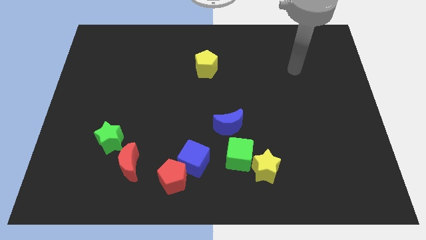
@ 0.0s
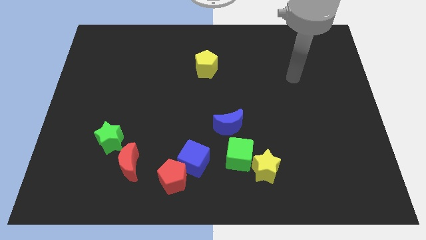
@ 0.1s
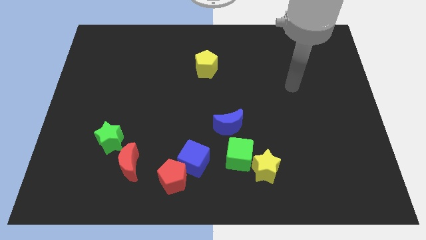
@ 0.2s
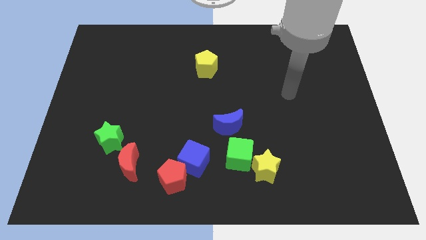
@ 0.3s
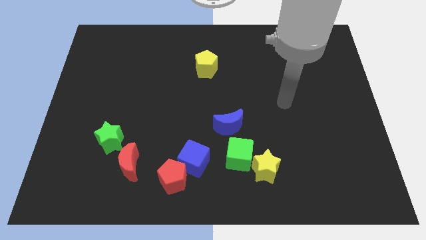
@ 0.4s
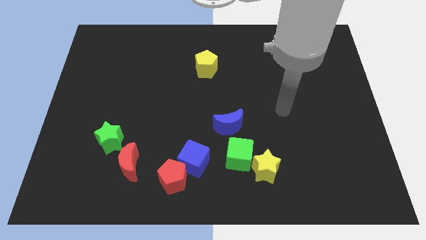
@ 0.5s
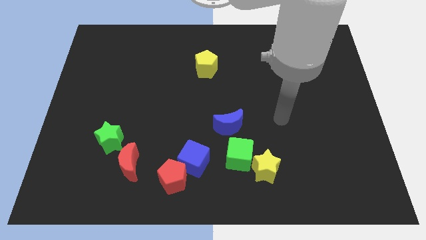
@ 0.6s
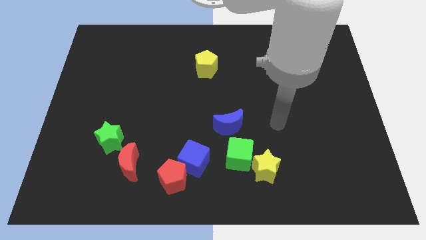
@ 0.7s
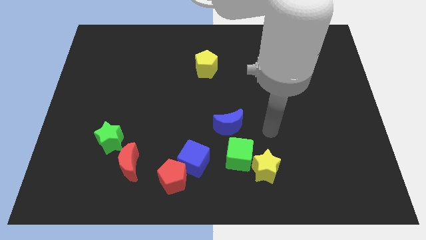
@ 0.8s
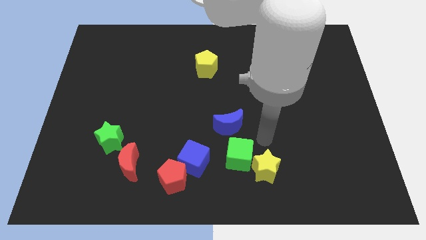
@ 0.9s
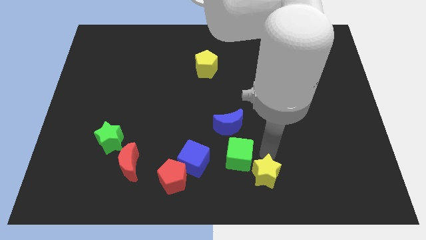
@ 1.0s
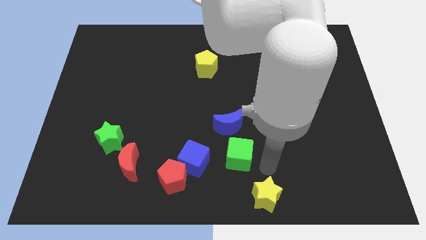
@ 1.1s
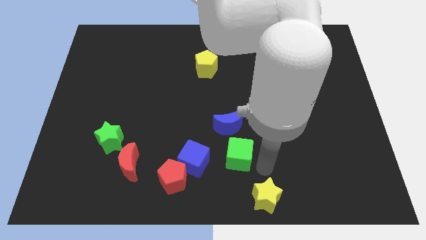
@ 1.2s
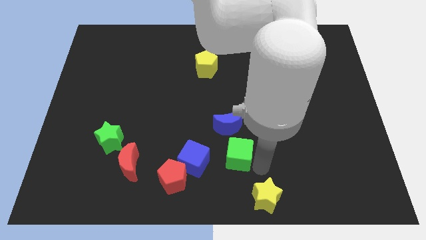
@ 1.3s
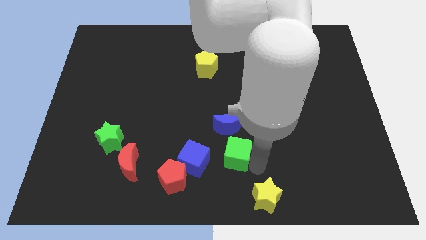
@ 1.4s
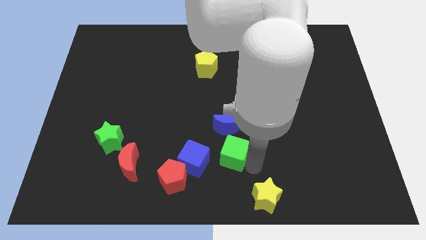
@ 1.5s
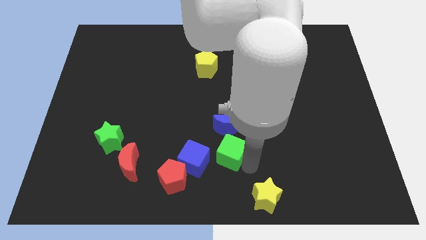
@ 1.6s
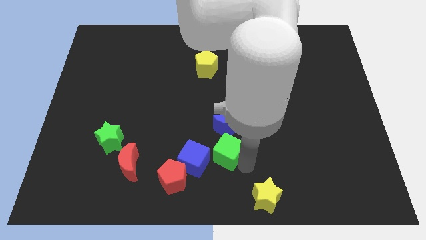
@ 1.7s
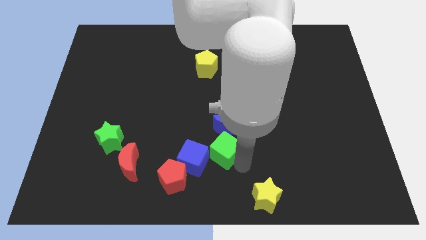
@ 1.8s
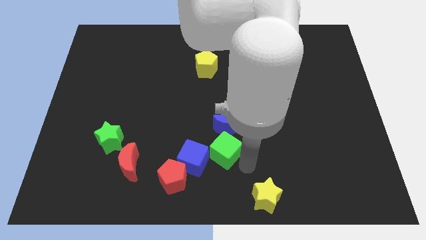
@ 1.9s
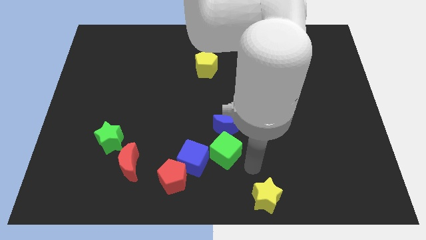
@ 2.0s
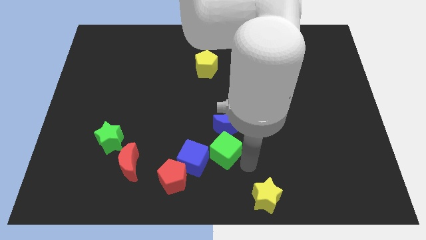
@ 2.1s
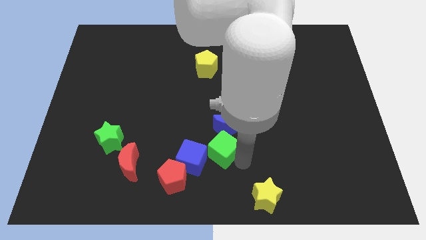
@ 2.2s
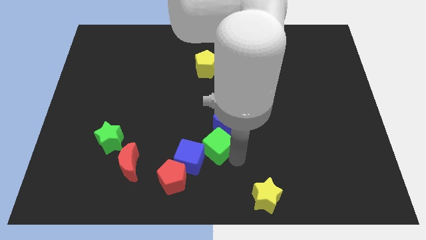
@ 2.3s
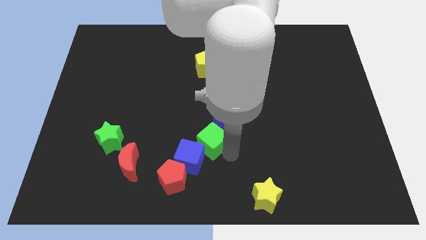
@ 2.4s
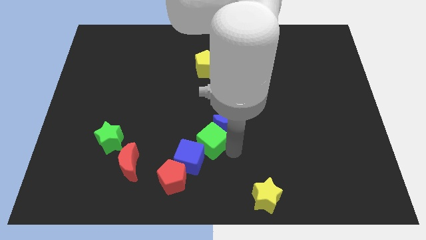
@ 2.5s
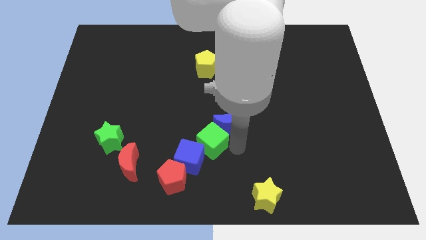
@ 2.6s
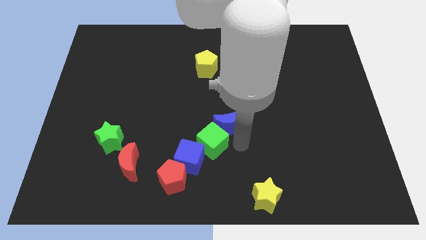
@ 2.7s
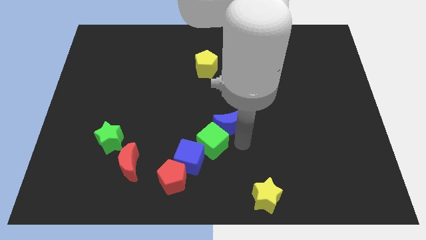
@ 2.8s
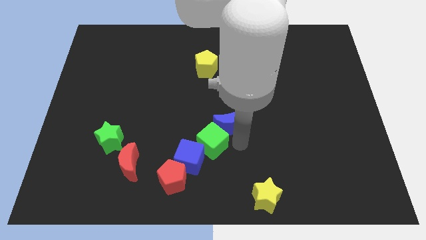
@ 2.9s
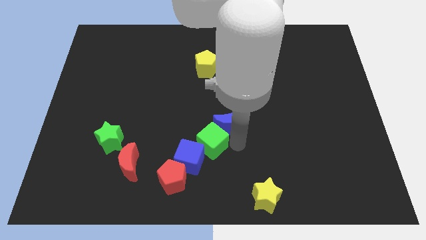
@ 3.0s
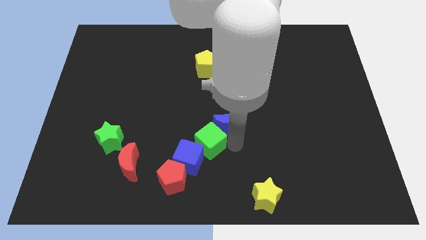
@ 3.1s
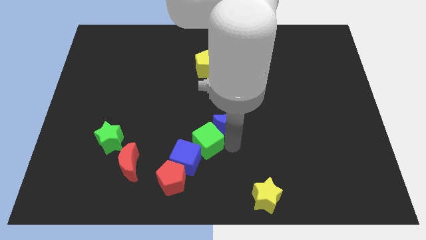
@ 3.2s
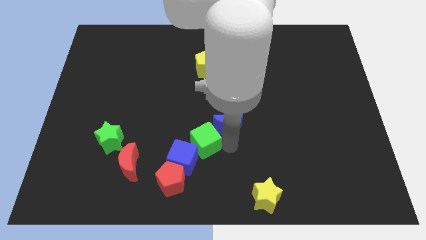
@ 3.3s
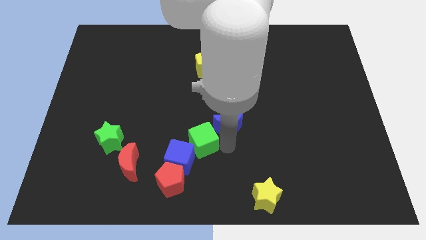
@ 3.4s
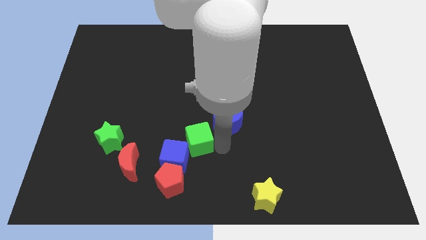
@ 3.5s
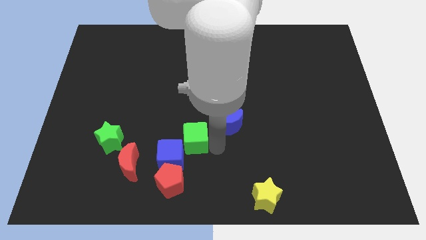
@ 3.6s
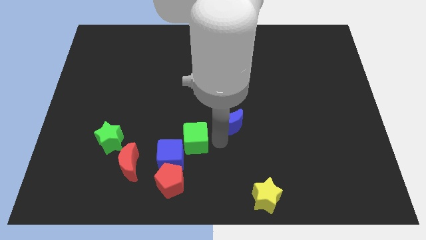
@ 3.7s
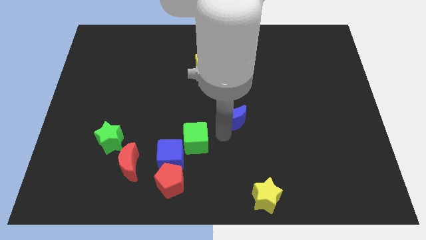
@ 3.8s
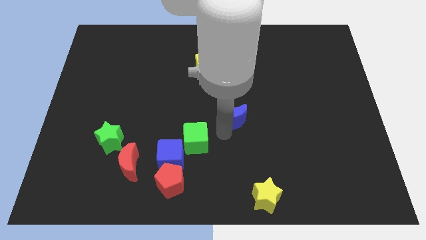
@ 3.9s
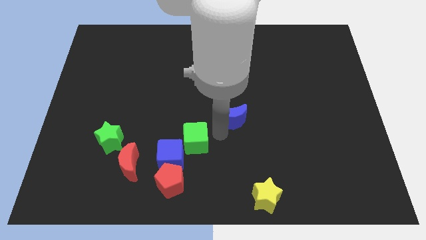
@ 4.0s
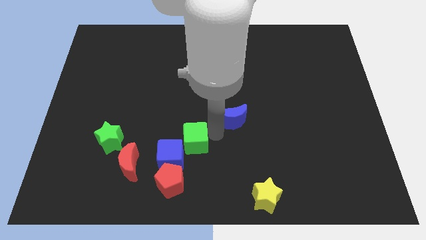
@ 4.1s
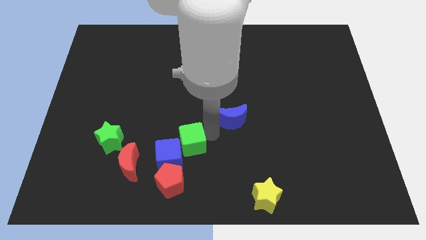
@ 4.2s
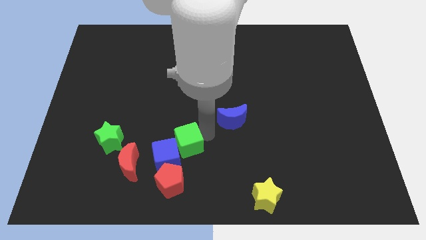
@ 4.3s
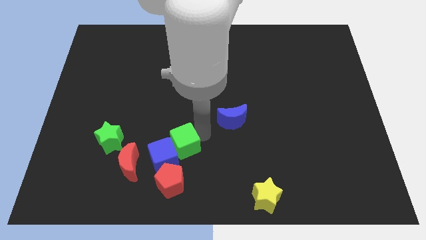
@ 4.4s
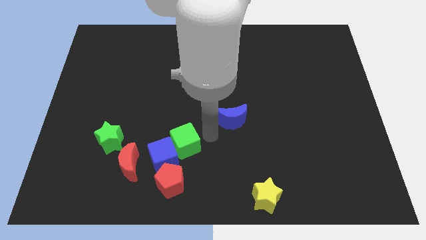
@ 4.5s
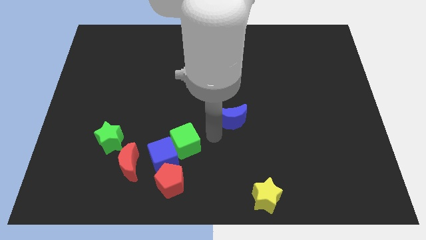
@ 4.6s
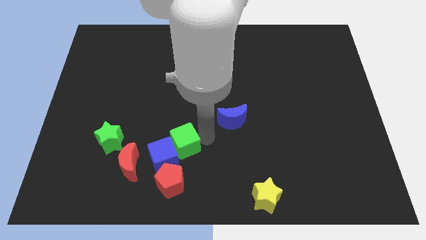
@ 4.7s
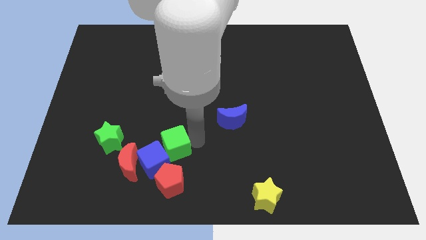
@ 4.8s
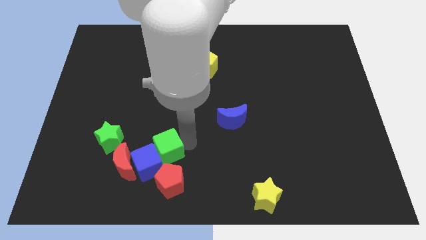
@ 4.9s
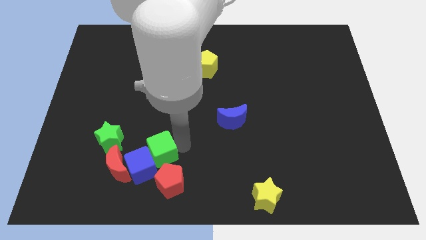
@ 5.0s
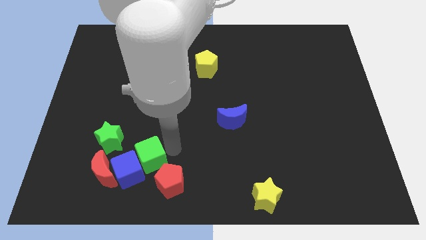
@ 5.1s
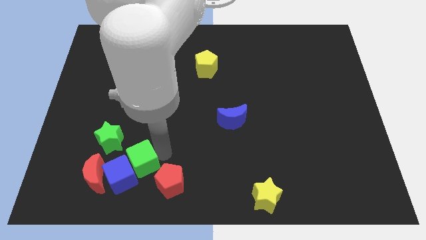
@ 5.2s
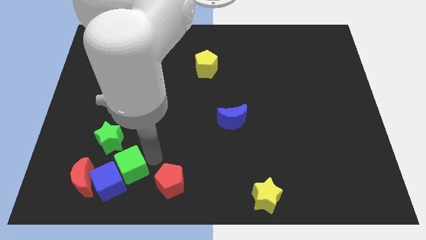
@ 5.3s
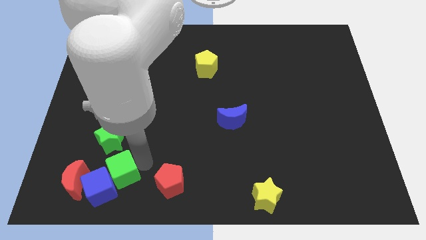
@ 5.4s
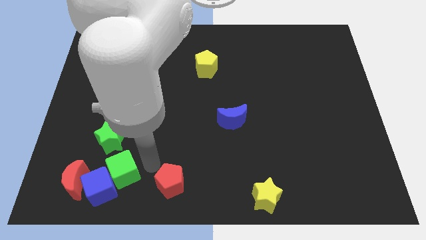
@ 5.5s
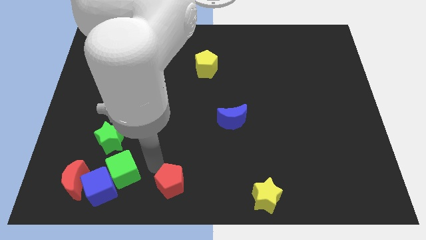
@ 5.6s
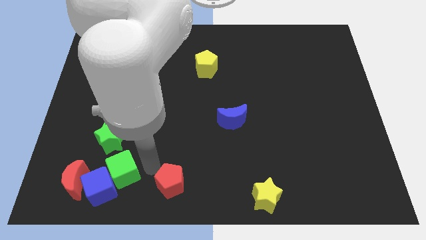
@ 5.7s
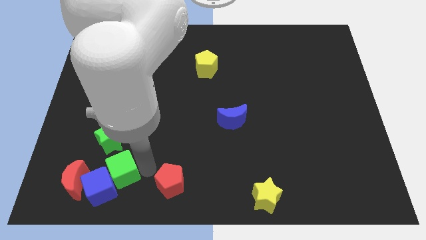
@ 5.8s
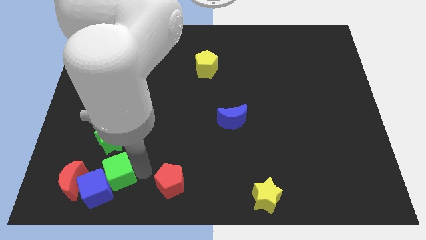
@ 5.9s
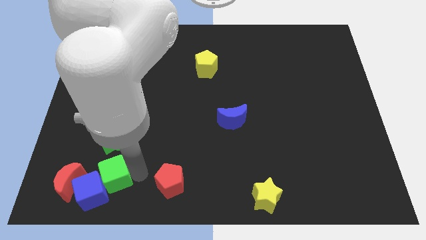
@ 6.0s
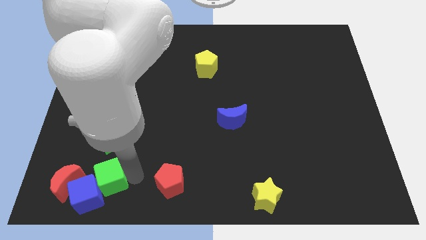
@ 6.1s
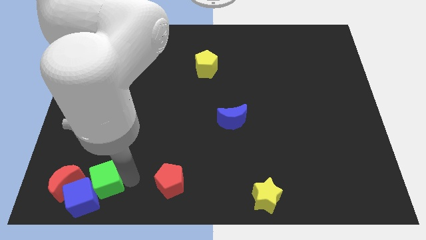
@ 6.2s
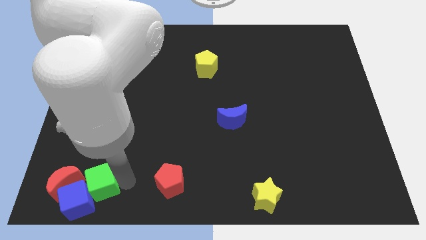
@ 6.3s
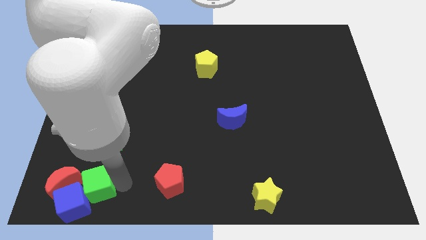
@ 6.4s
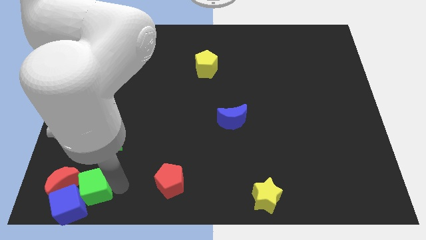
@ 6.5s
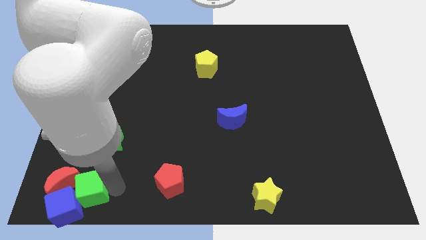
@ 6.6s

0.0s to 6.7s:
push the green cube towards the red moon

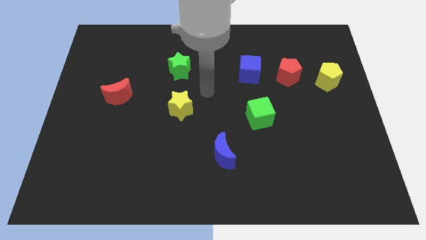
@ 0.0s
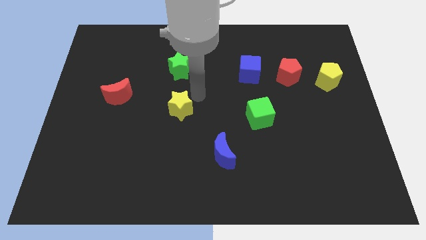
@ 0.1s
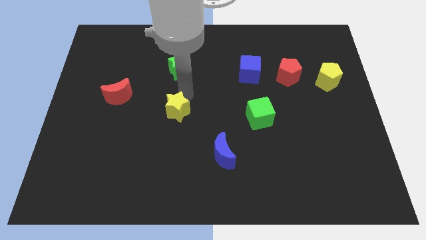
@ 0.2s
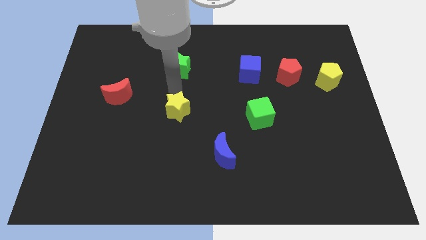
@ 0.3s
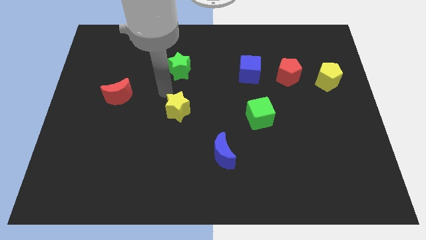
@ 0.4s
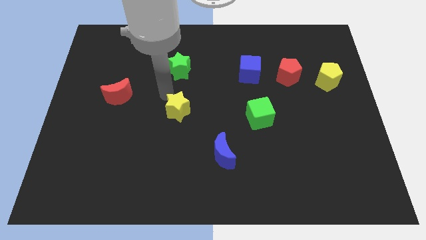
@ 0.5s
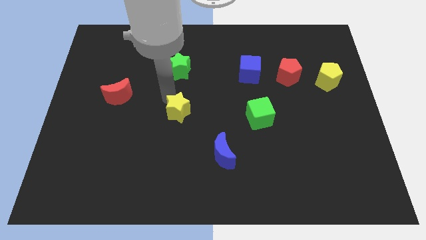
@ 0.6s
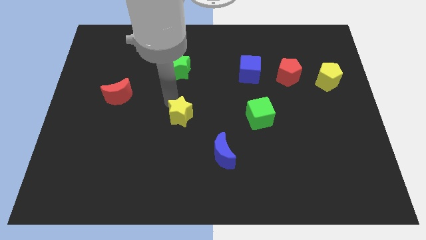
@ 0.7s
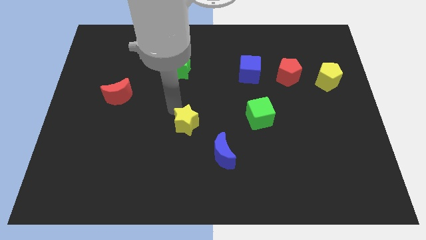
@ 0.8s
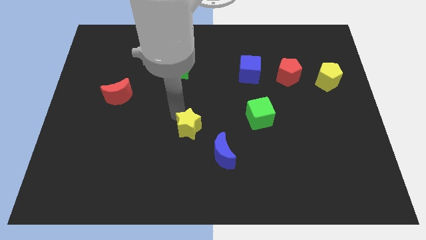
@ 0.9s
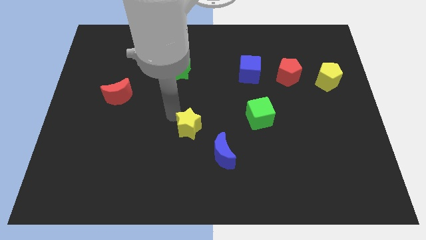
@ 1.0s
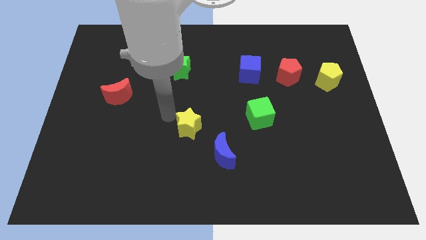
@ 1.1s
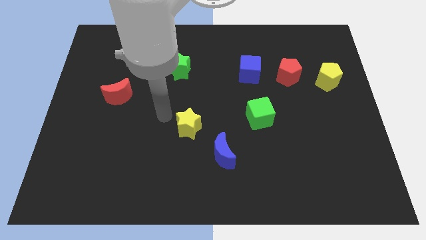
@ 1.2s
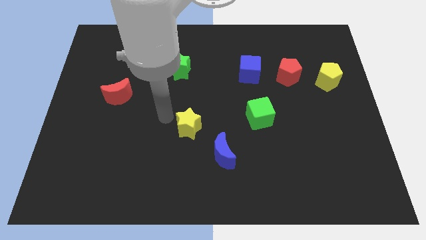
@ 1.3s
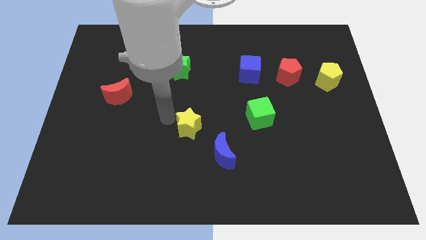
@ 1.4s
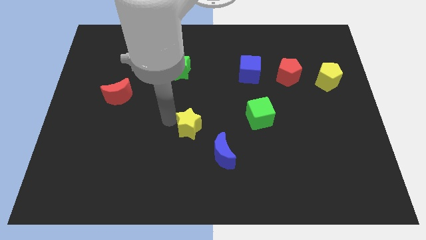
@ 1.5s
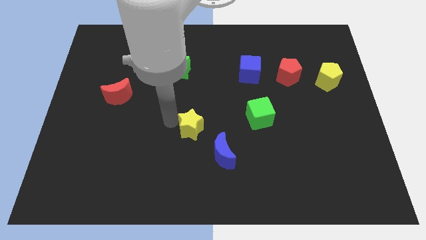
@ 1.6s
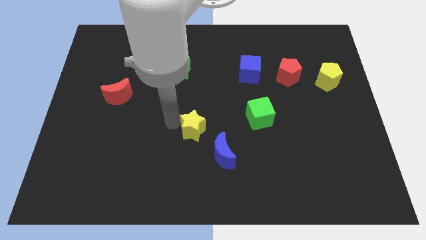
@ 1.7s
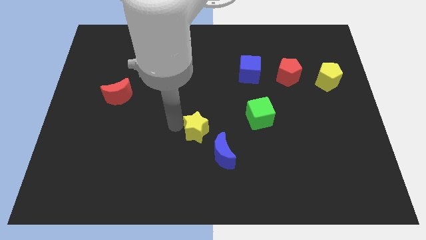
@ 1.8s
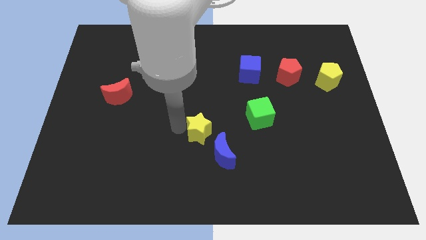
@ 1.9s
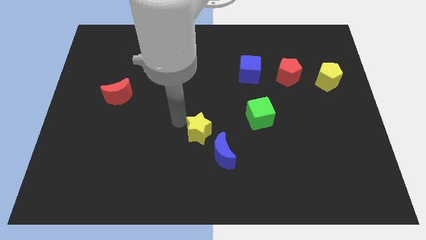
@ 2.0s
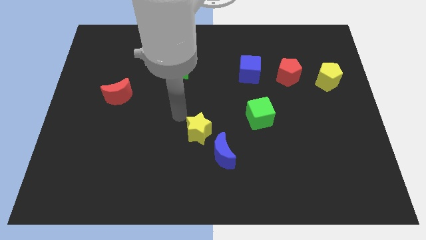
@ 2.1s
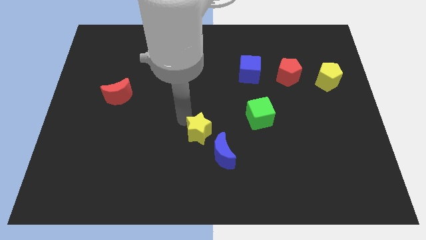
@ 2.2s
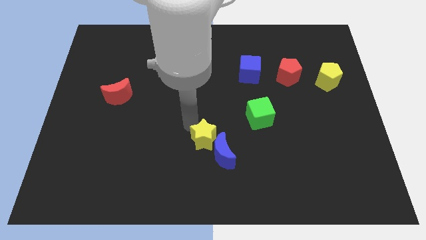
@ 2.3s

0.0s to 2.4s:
put the yellow star next to the blue moon
